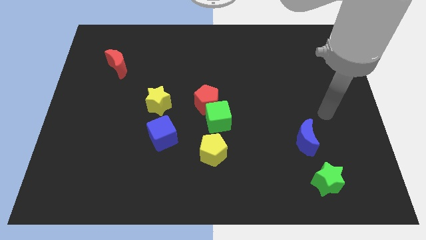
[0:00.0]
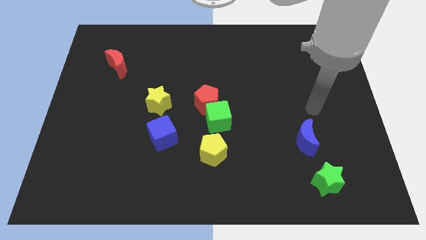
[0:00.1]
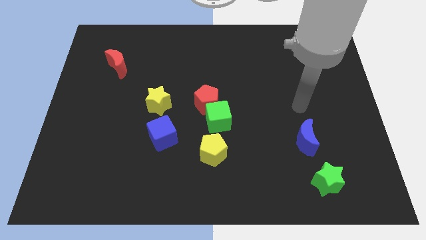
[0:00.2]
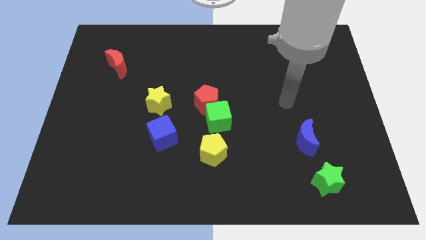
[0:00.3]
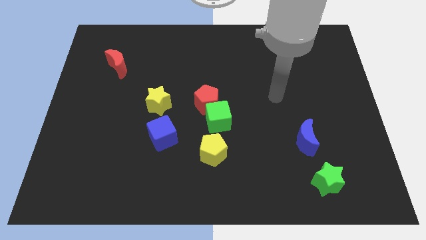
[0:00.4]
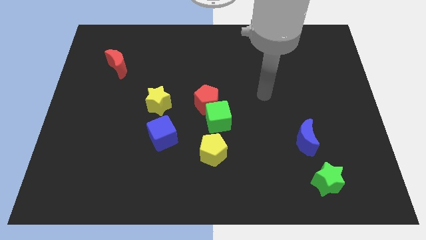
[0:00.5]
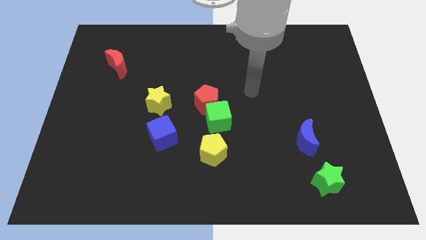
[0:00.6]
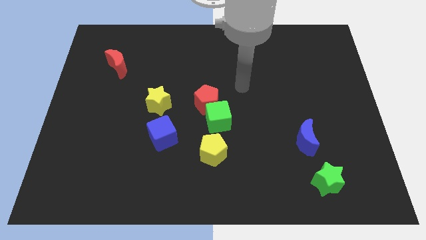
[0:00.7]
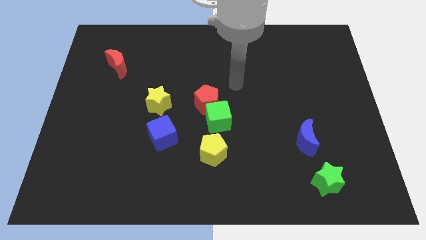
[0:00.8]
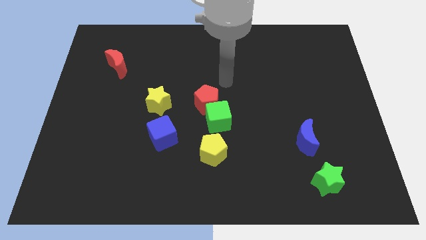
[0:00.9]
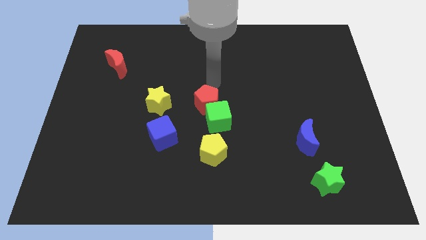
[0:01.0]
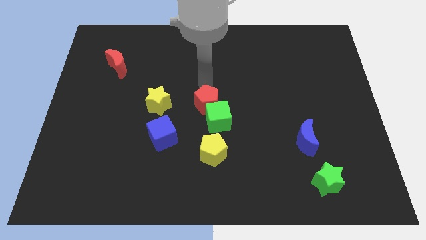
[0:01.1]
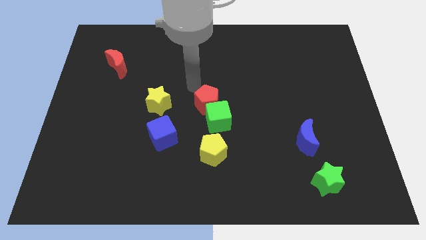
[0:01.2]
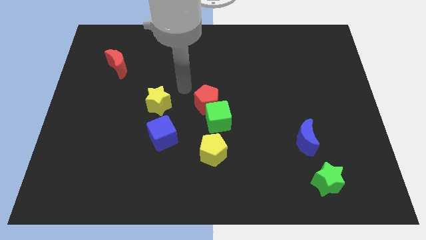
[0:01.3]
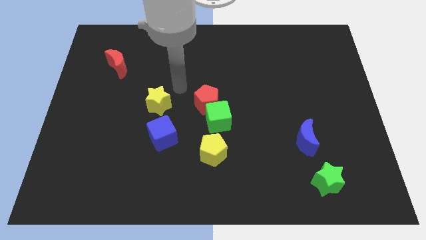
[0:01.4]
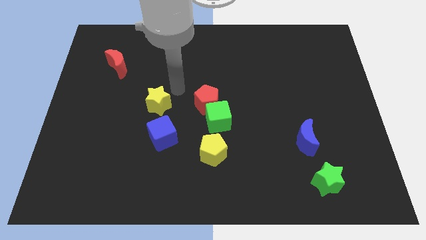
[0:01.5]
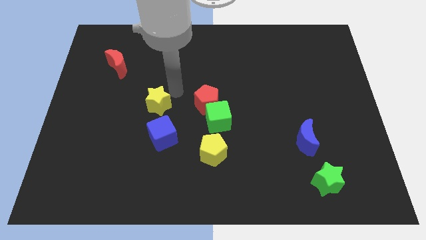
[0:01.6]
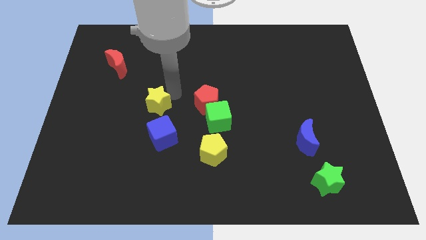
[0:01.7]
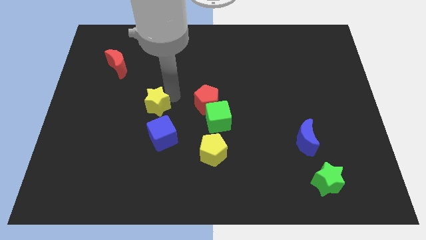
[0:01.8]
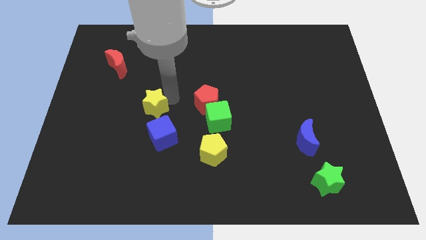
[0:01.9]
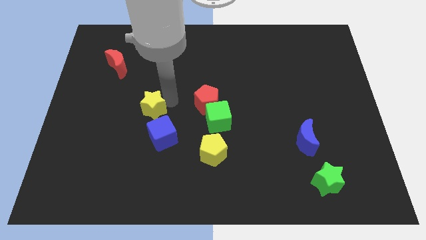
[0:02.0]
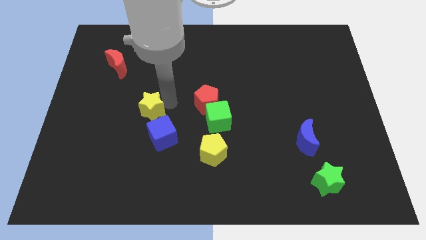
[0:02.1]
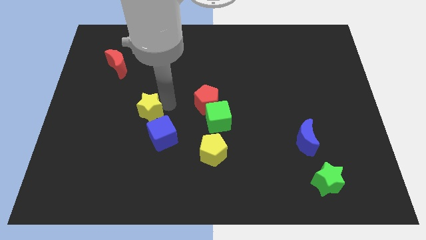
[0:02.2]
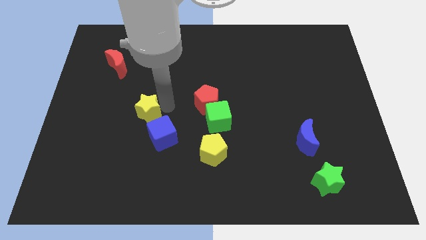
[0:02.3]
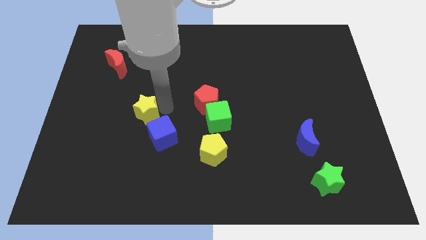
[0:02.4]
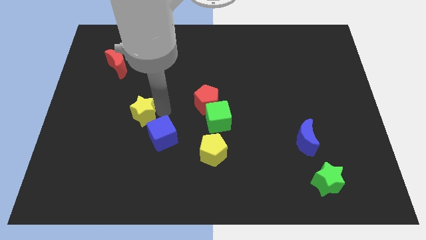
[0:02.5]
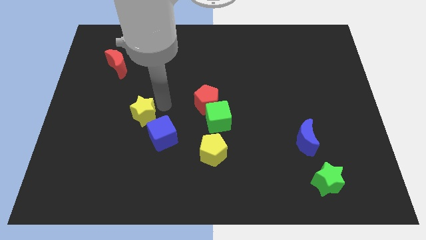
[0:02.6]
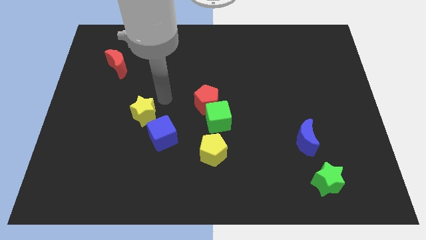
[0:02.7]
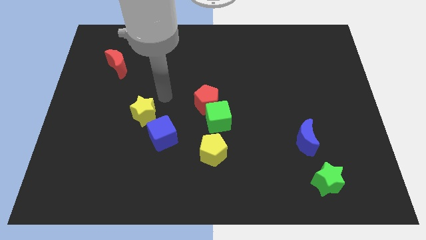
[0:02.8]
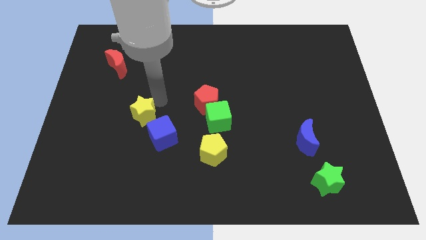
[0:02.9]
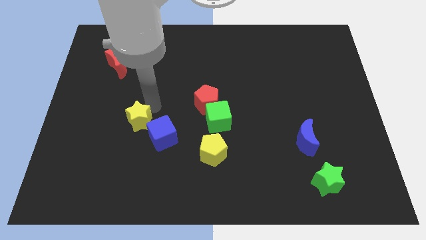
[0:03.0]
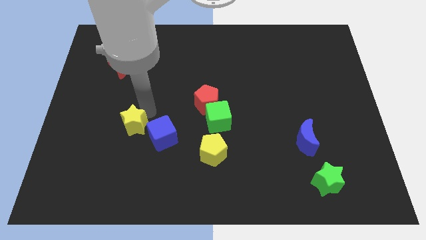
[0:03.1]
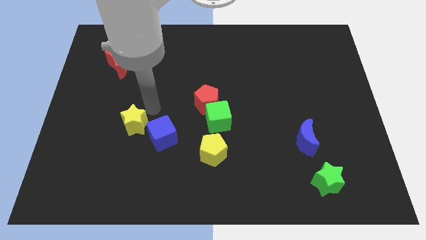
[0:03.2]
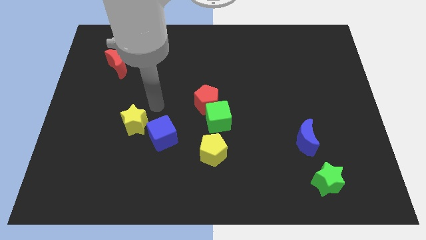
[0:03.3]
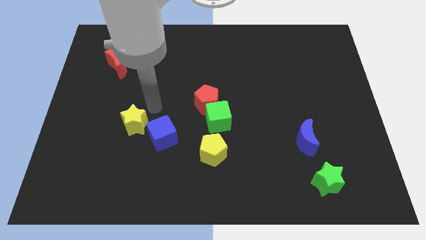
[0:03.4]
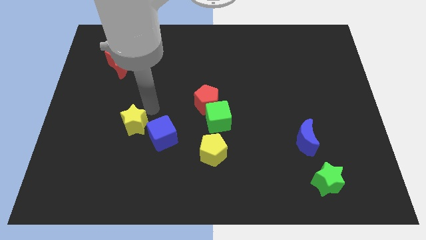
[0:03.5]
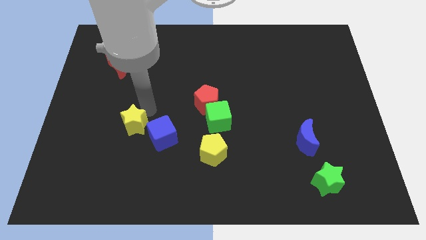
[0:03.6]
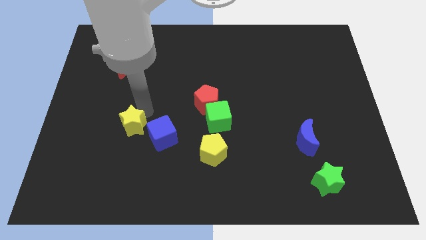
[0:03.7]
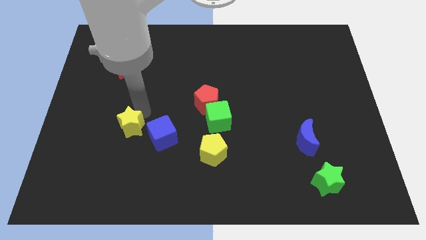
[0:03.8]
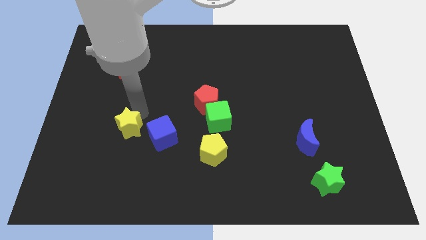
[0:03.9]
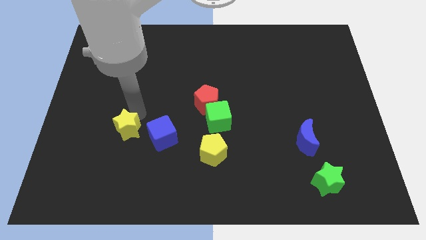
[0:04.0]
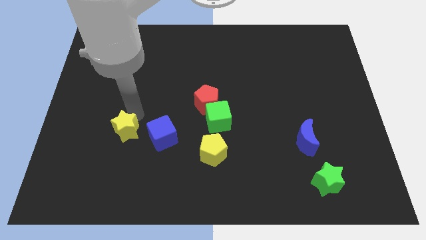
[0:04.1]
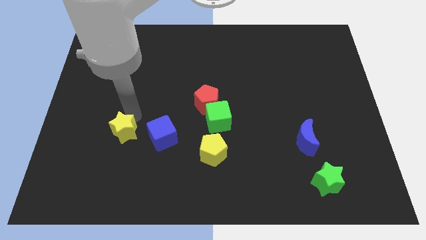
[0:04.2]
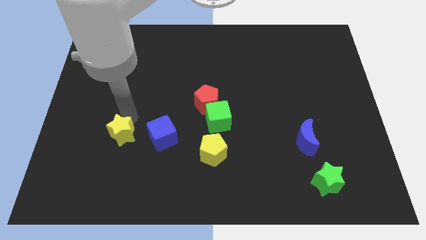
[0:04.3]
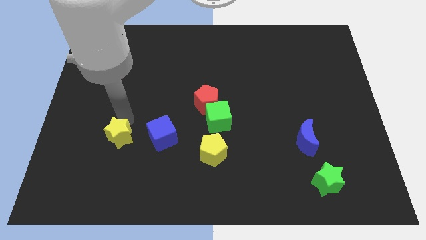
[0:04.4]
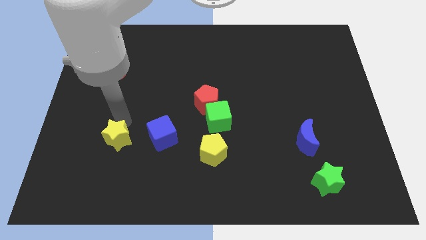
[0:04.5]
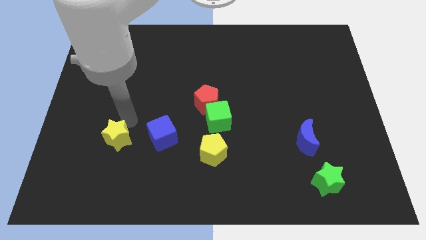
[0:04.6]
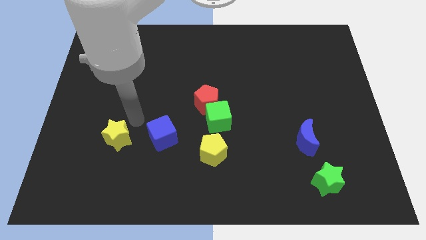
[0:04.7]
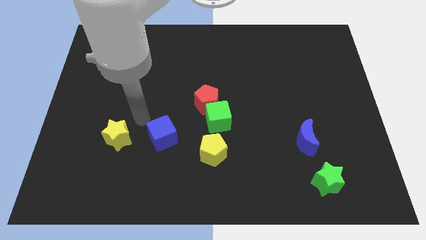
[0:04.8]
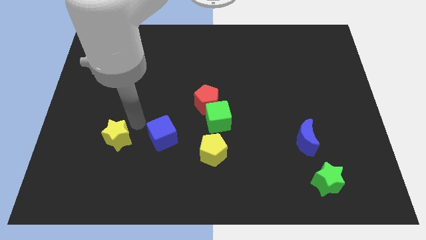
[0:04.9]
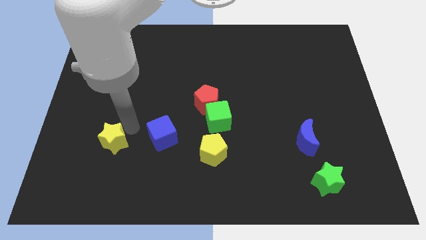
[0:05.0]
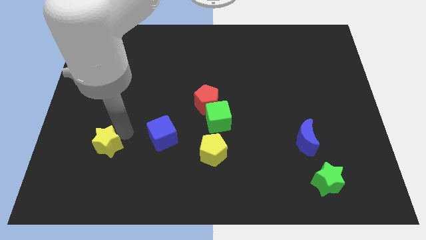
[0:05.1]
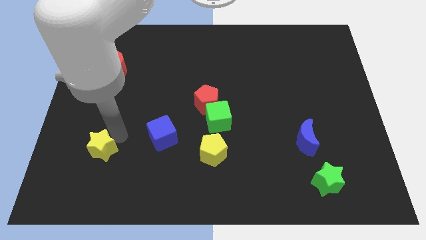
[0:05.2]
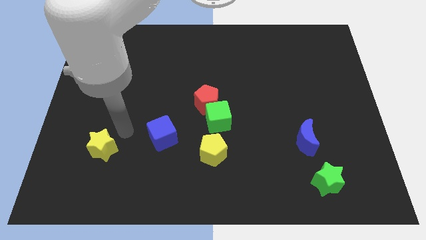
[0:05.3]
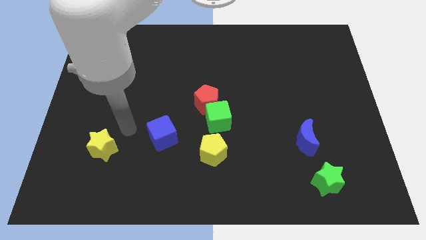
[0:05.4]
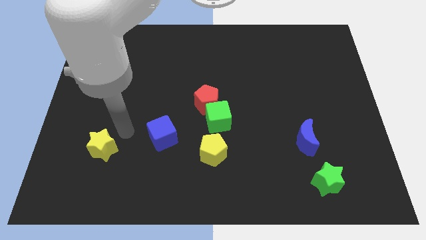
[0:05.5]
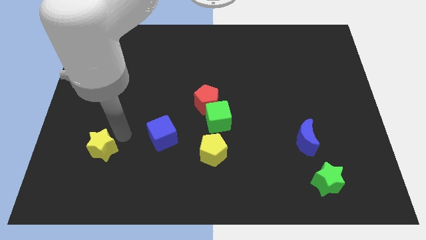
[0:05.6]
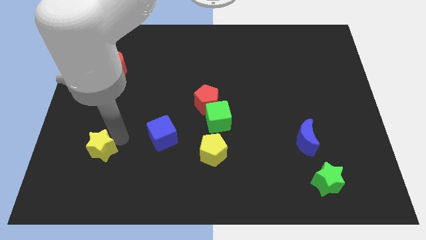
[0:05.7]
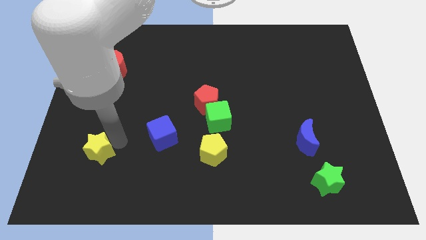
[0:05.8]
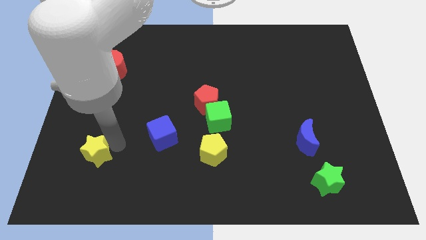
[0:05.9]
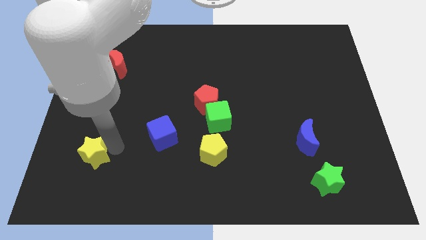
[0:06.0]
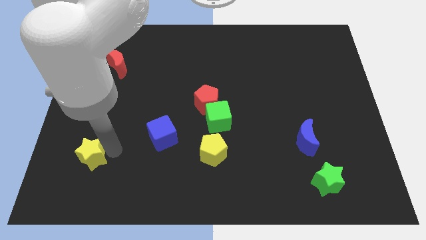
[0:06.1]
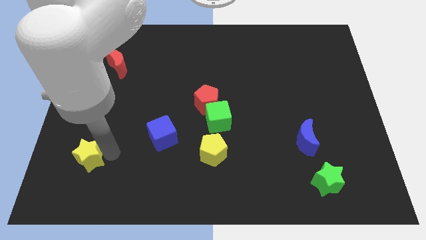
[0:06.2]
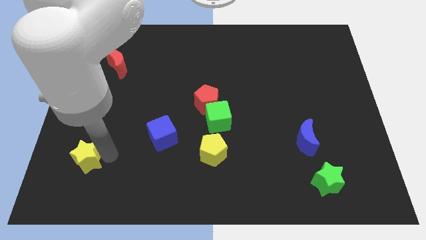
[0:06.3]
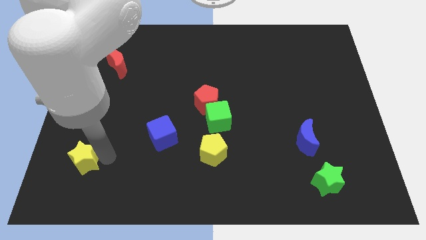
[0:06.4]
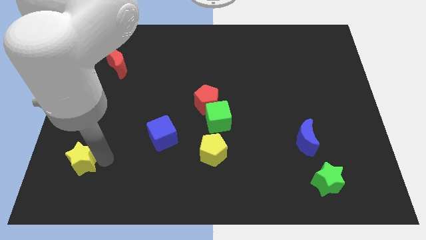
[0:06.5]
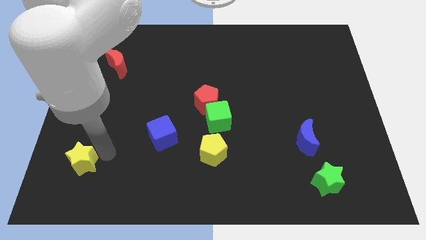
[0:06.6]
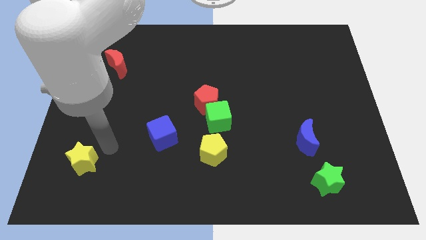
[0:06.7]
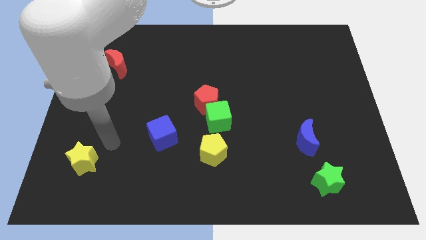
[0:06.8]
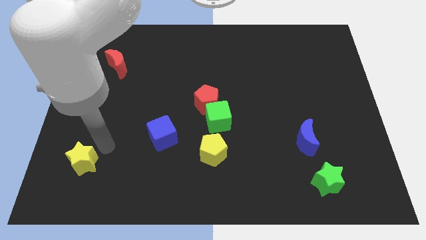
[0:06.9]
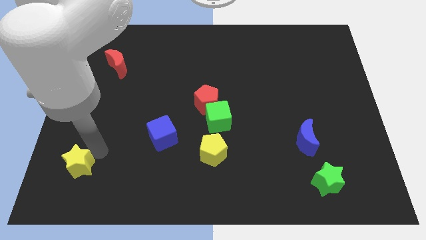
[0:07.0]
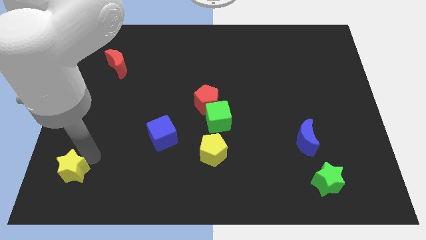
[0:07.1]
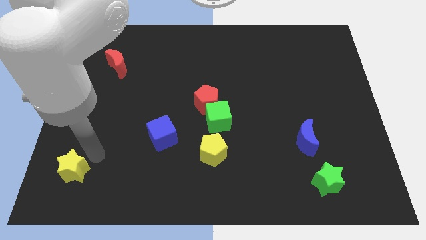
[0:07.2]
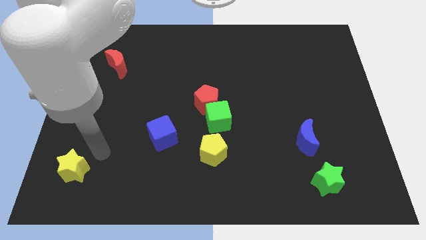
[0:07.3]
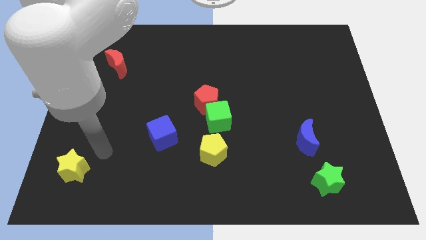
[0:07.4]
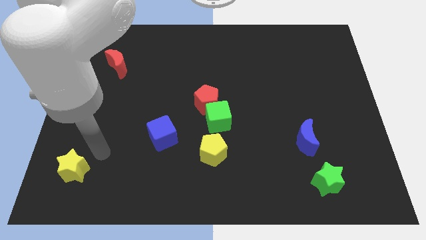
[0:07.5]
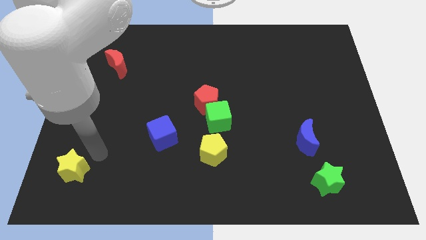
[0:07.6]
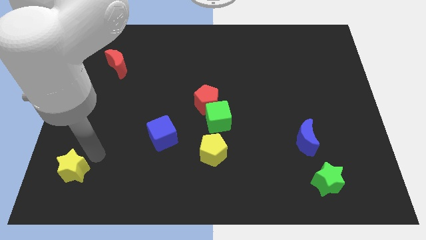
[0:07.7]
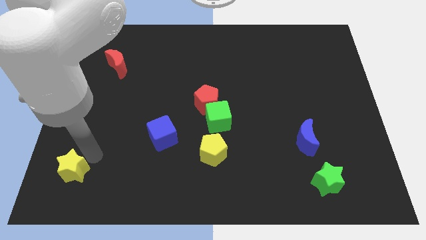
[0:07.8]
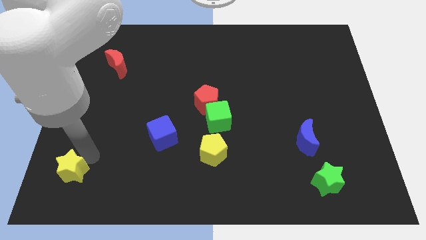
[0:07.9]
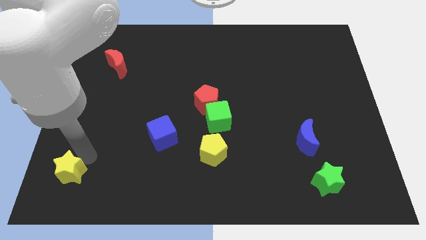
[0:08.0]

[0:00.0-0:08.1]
put the yellow star to the bottom left
